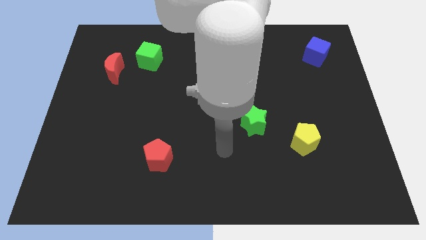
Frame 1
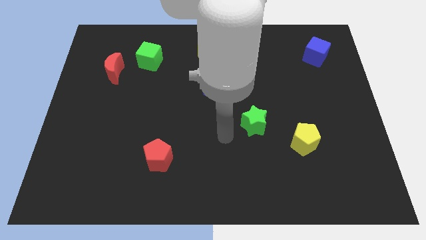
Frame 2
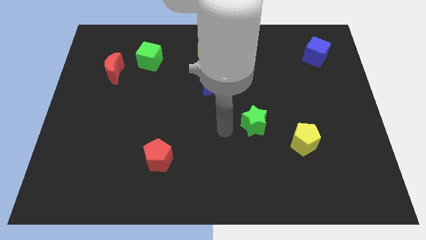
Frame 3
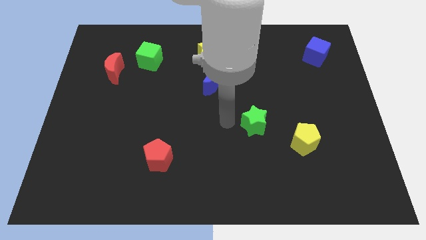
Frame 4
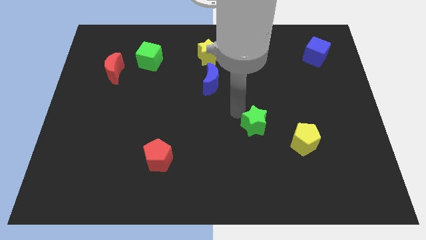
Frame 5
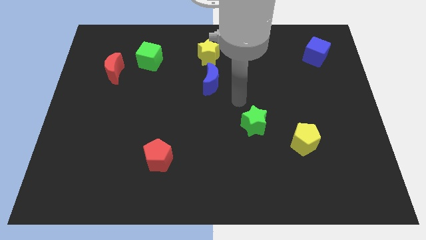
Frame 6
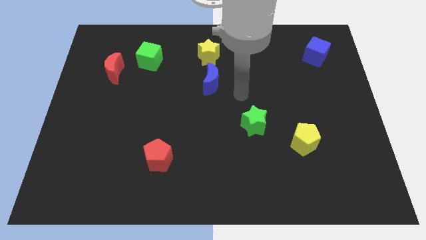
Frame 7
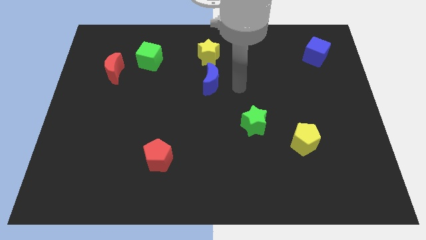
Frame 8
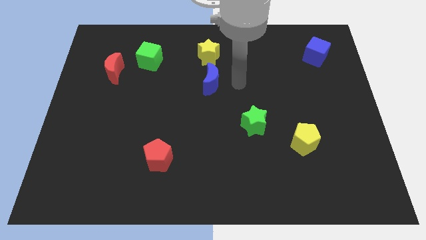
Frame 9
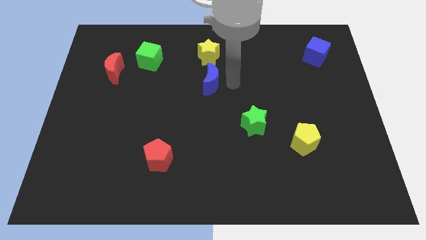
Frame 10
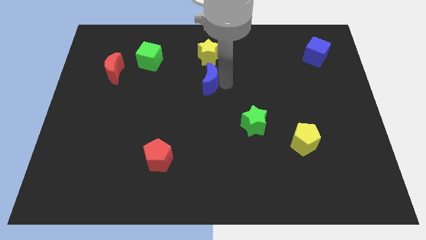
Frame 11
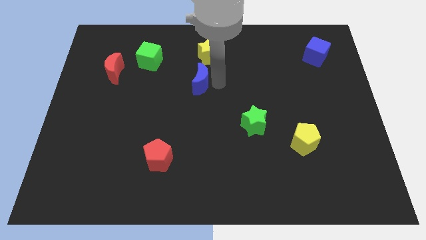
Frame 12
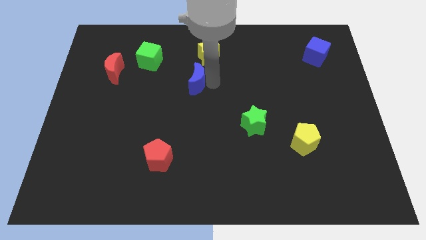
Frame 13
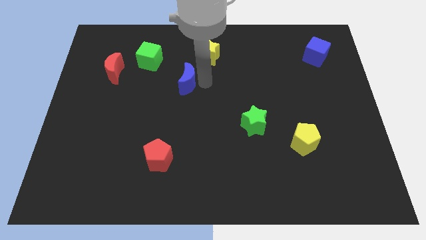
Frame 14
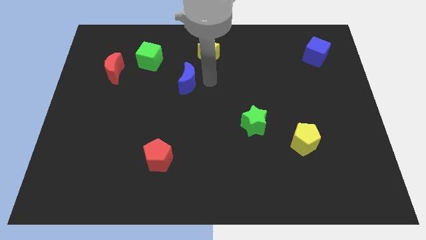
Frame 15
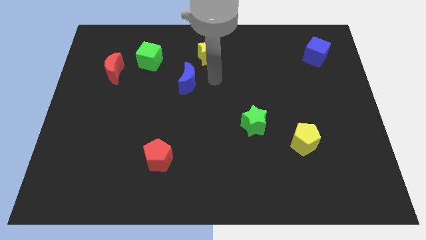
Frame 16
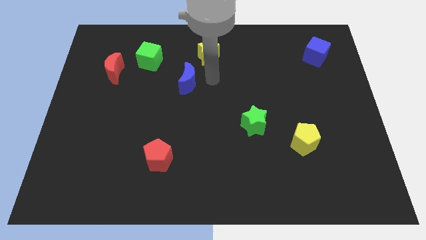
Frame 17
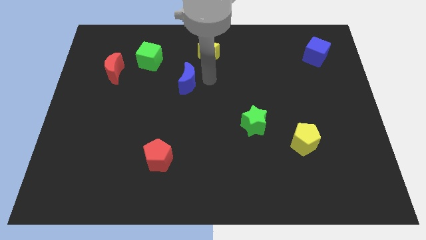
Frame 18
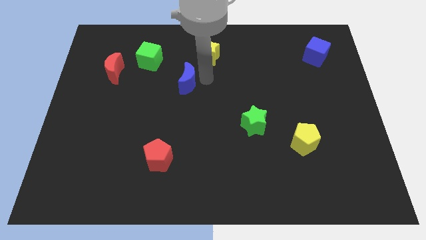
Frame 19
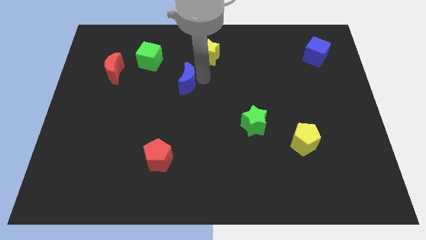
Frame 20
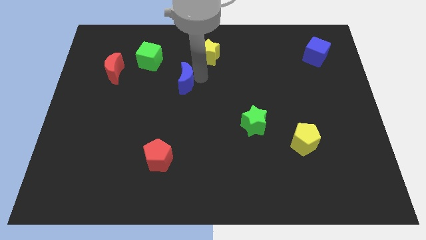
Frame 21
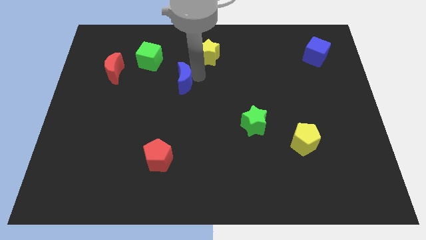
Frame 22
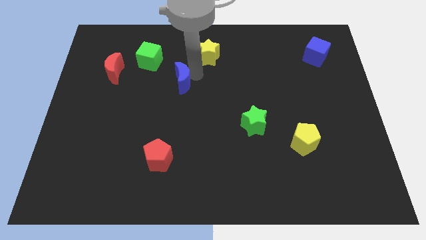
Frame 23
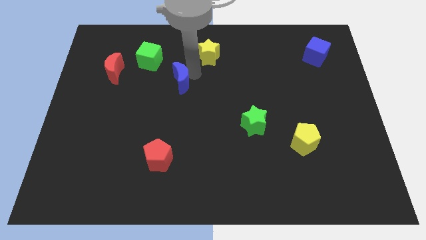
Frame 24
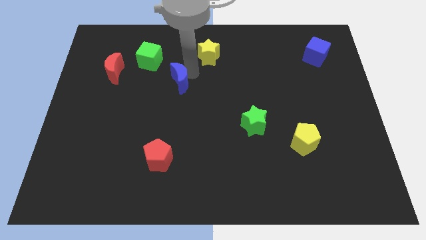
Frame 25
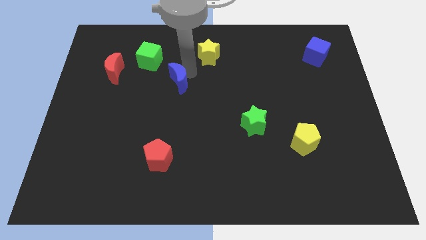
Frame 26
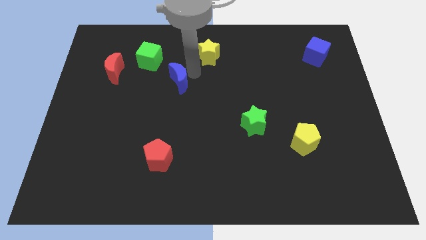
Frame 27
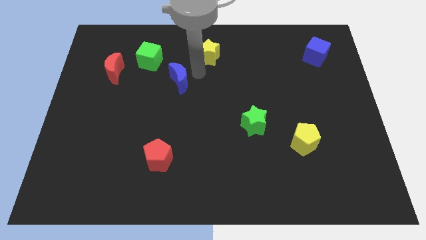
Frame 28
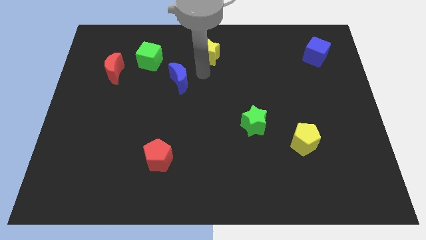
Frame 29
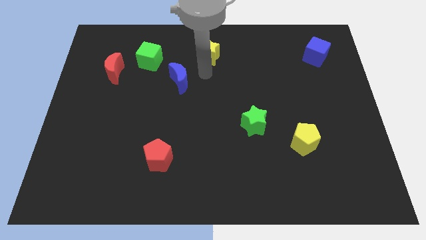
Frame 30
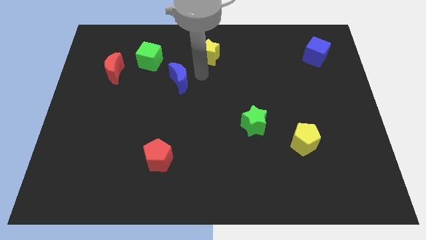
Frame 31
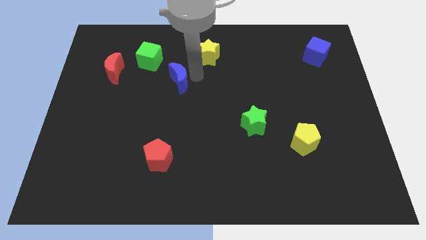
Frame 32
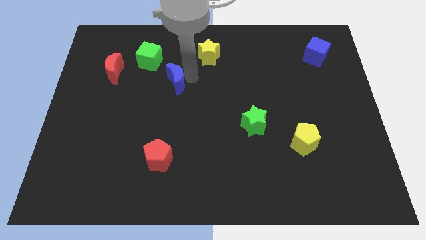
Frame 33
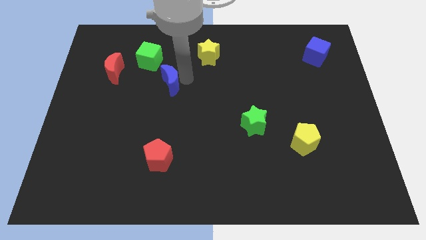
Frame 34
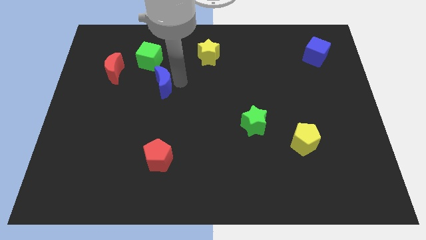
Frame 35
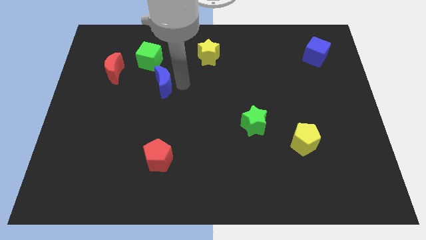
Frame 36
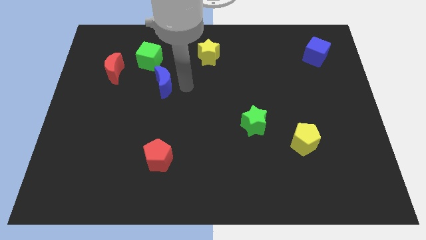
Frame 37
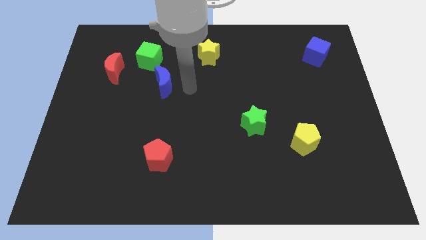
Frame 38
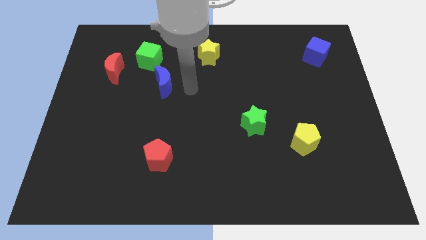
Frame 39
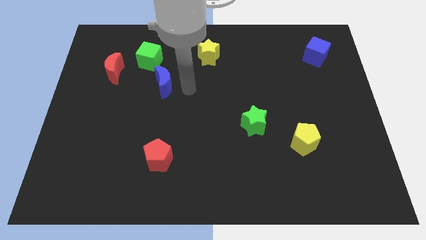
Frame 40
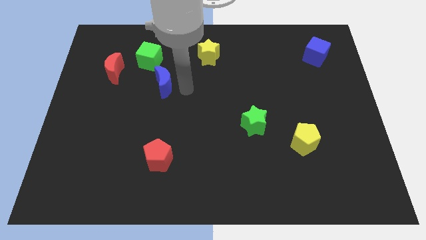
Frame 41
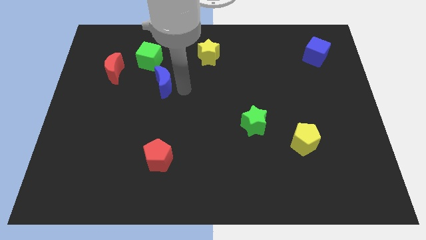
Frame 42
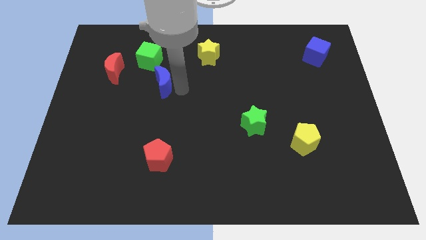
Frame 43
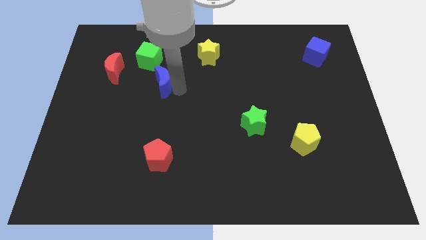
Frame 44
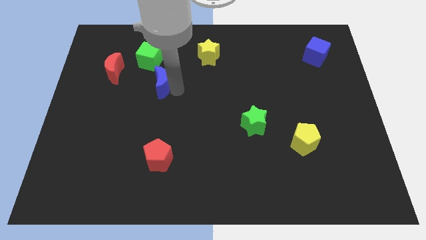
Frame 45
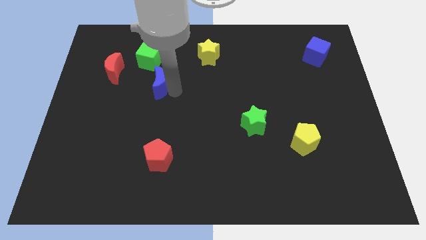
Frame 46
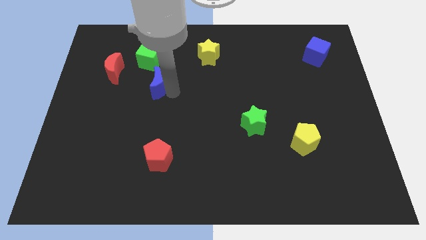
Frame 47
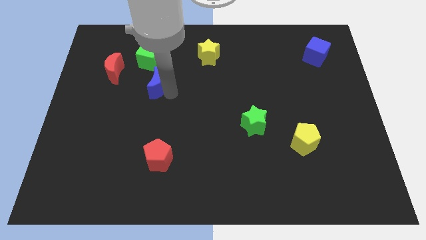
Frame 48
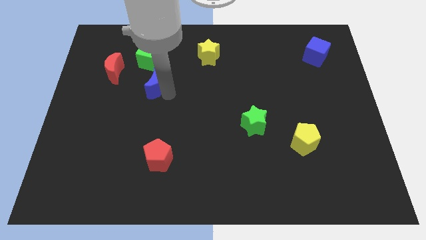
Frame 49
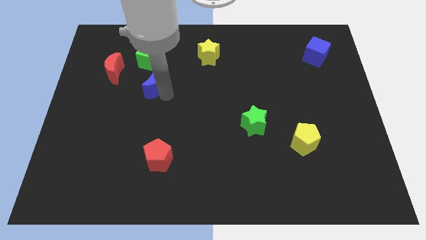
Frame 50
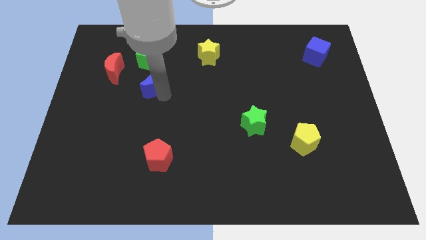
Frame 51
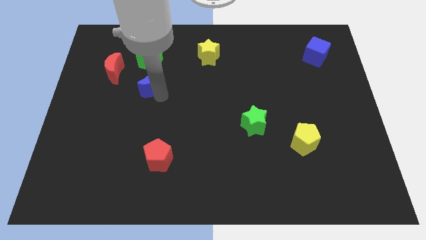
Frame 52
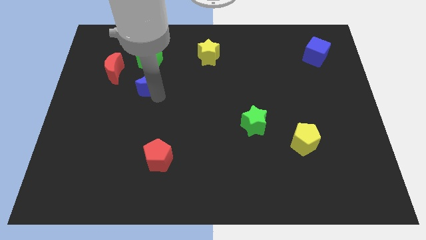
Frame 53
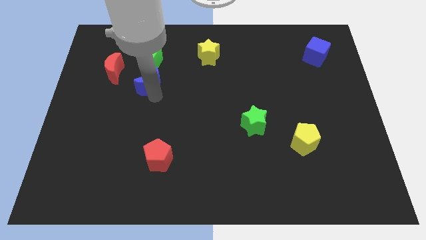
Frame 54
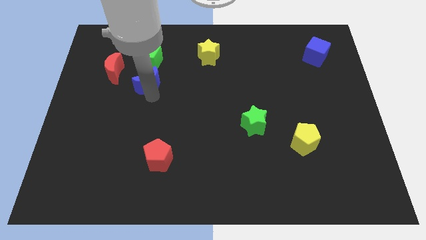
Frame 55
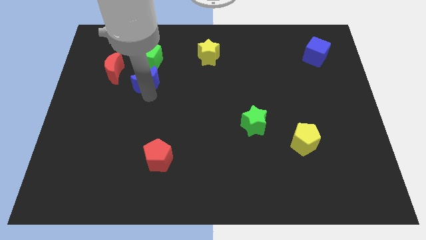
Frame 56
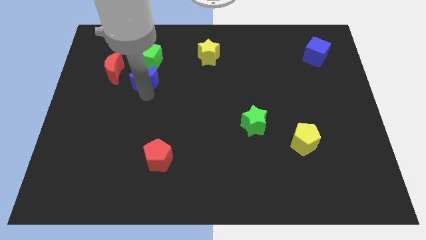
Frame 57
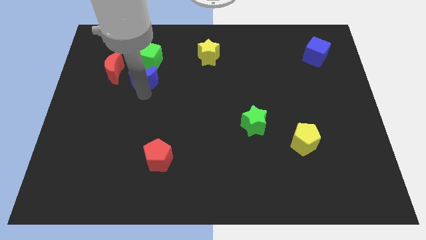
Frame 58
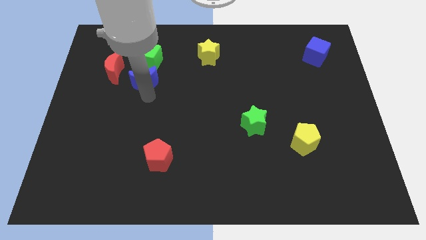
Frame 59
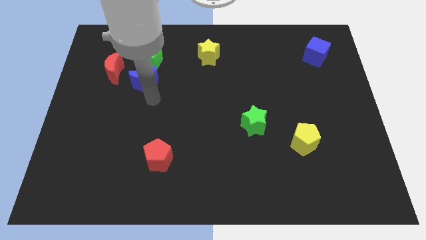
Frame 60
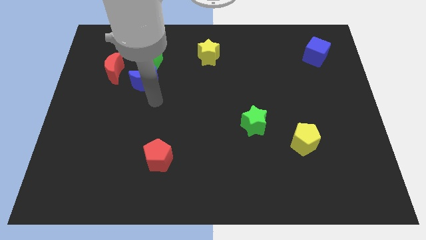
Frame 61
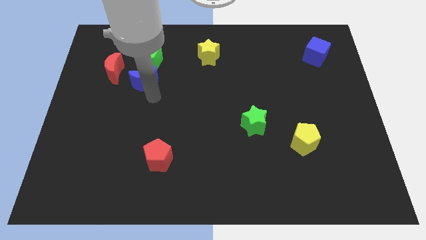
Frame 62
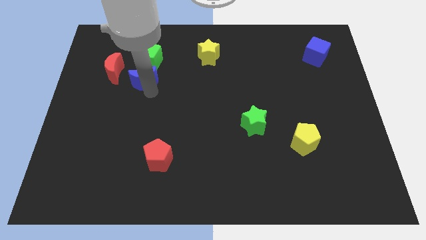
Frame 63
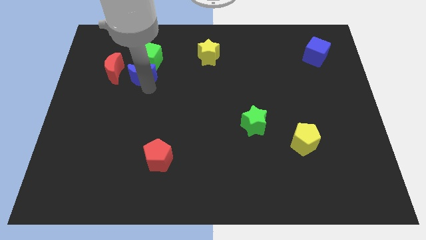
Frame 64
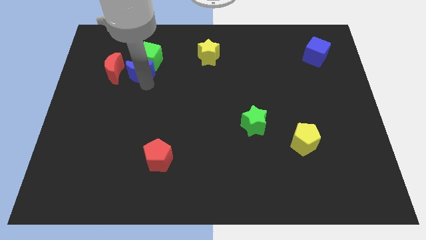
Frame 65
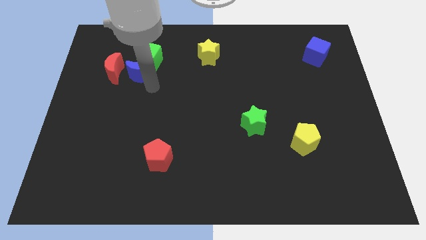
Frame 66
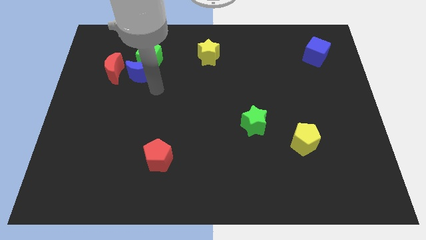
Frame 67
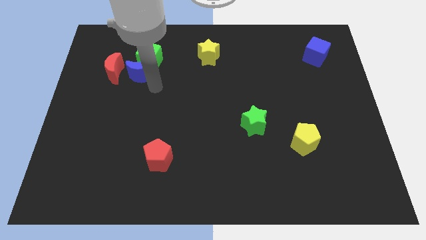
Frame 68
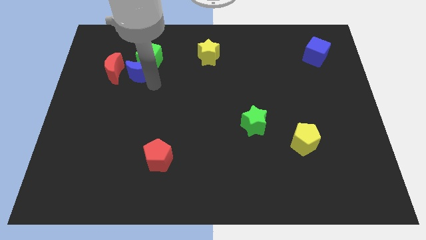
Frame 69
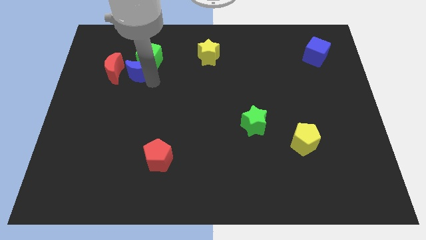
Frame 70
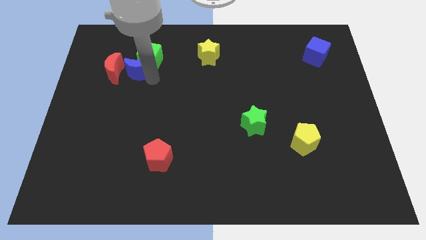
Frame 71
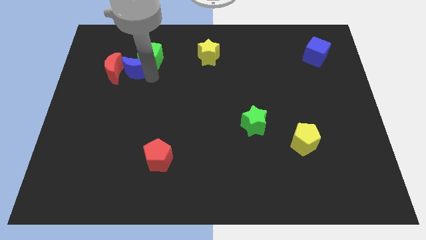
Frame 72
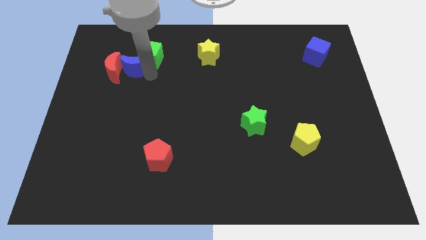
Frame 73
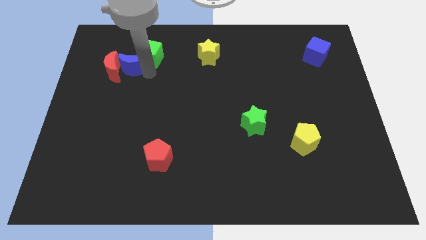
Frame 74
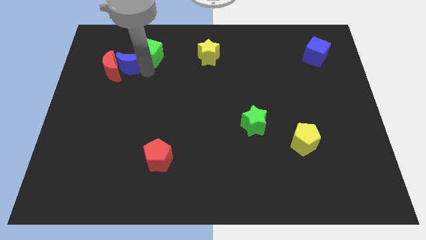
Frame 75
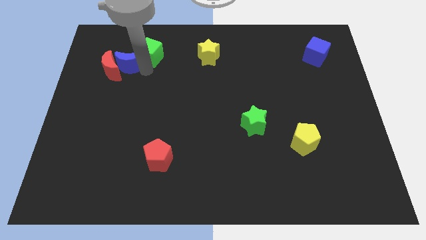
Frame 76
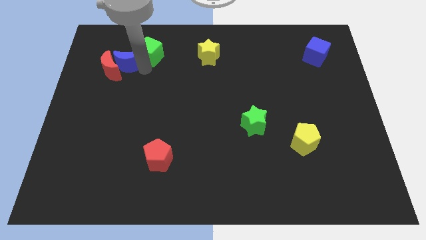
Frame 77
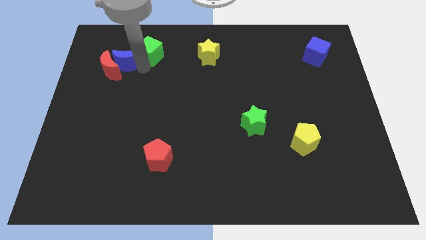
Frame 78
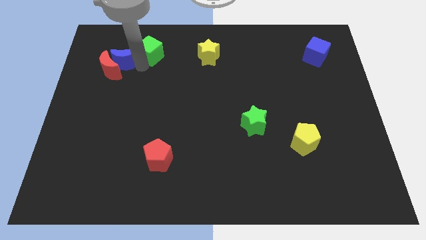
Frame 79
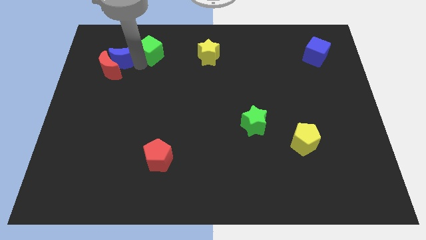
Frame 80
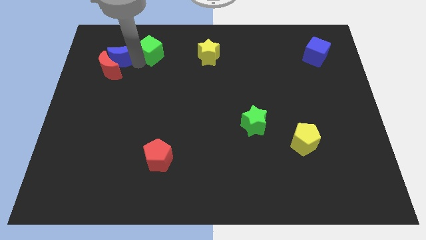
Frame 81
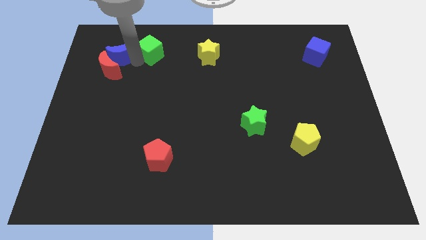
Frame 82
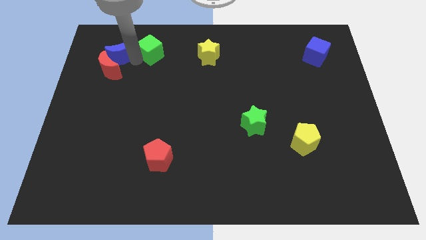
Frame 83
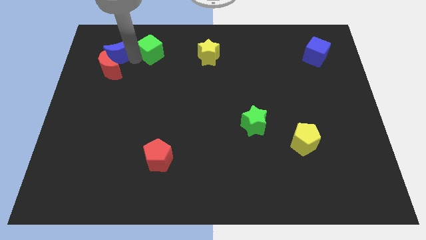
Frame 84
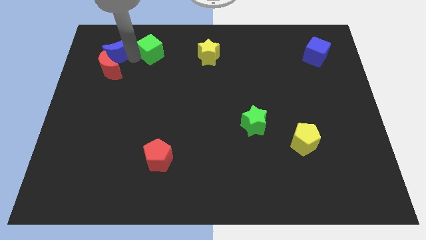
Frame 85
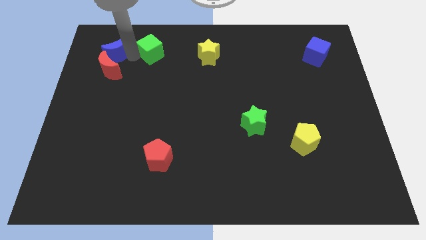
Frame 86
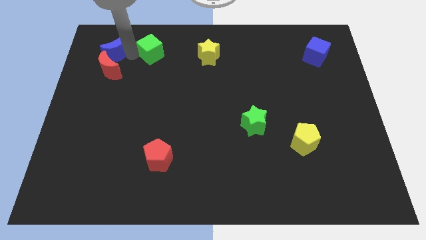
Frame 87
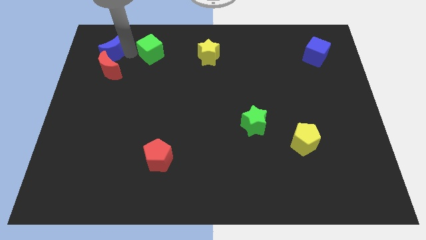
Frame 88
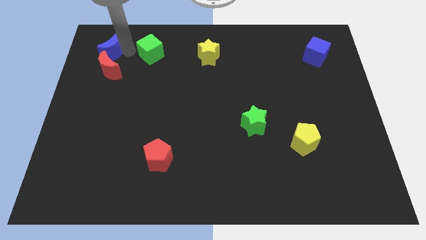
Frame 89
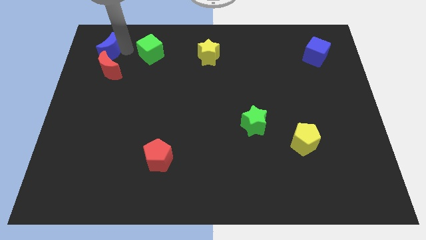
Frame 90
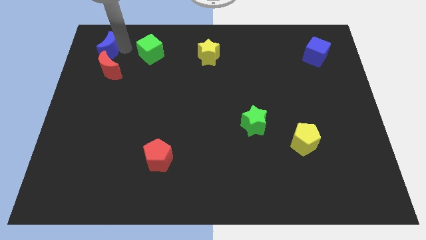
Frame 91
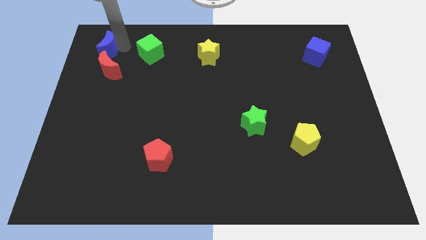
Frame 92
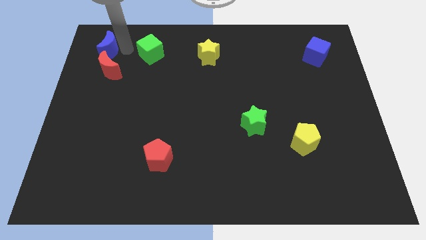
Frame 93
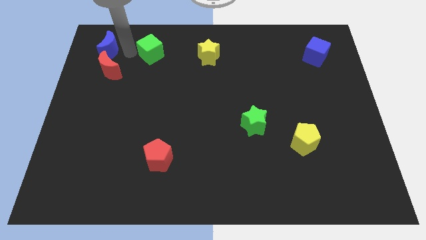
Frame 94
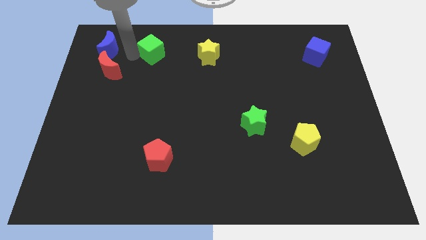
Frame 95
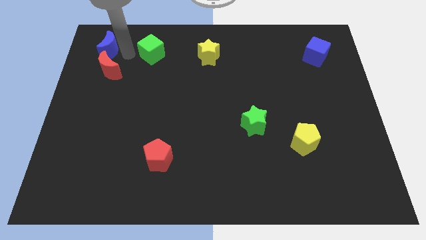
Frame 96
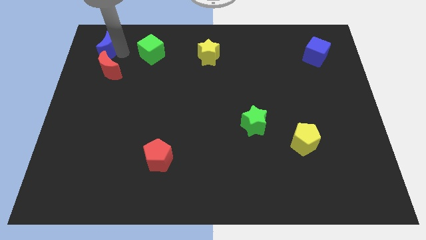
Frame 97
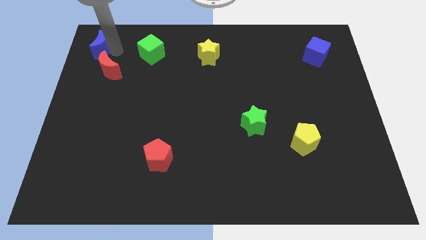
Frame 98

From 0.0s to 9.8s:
slide the blue moon to the top left of the board
